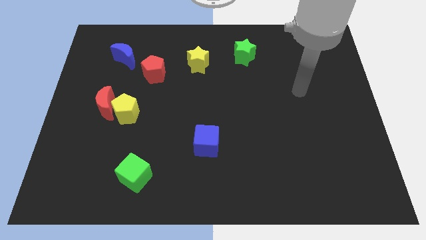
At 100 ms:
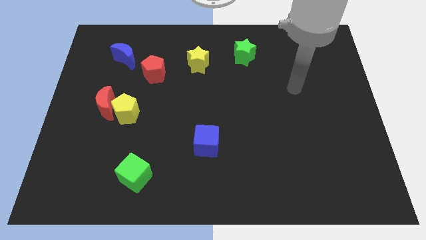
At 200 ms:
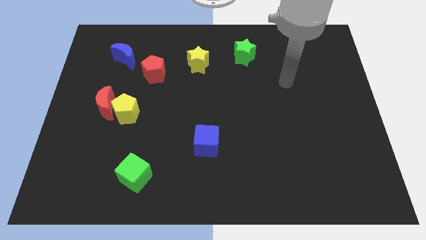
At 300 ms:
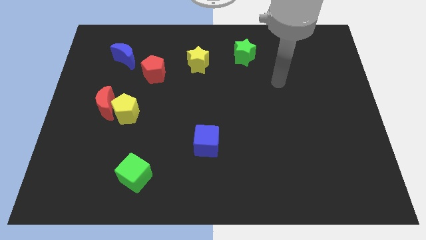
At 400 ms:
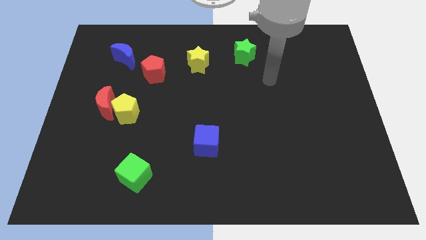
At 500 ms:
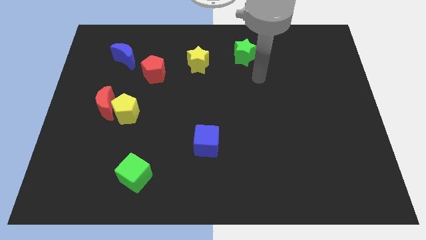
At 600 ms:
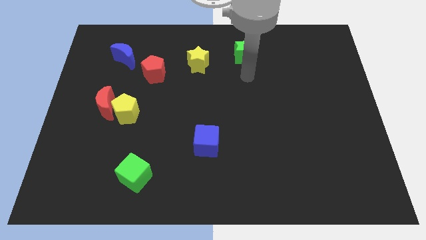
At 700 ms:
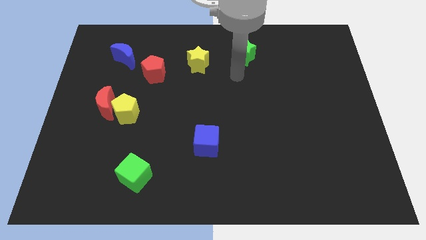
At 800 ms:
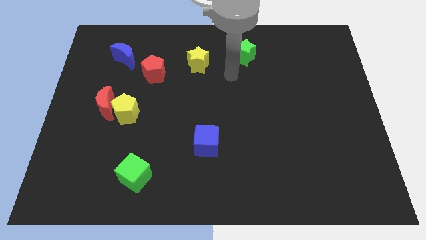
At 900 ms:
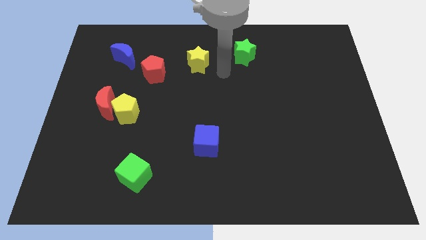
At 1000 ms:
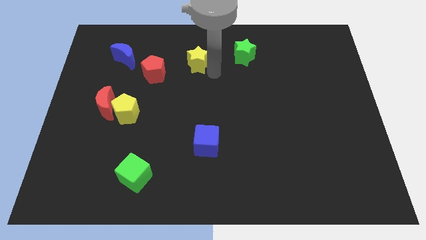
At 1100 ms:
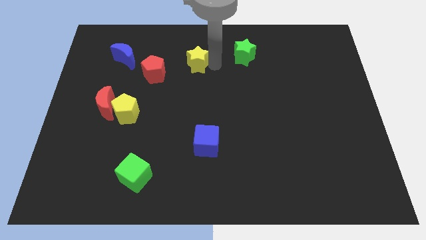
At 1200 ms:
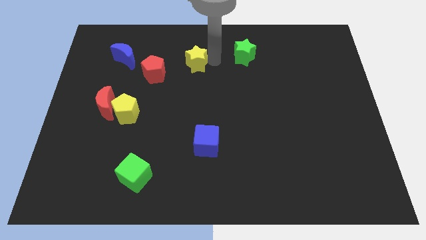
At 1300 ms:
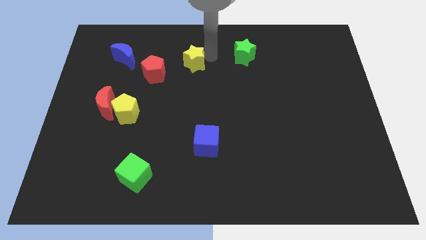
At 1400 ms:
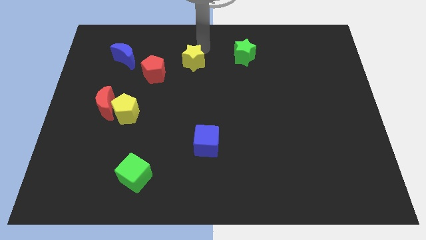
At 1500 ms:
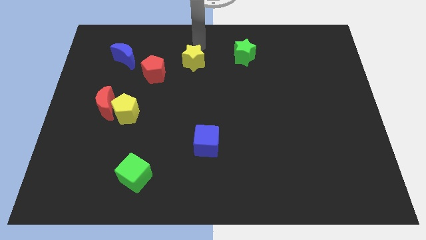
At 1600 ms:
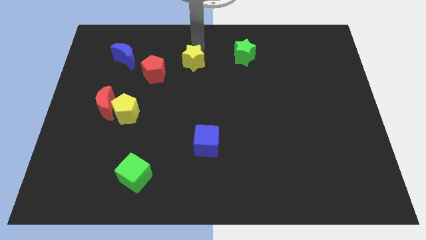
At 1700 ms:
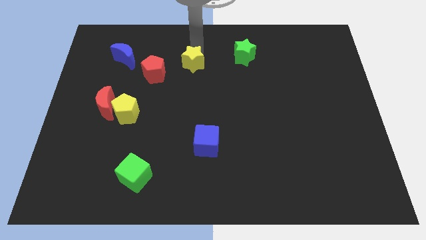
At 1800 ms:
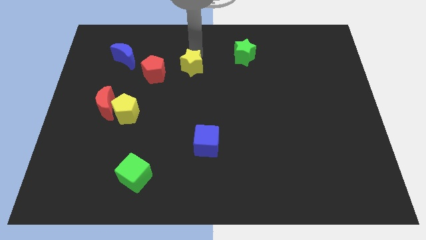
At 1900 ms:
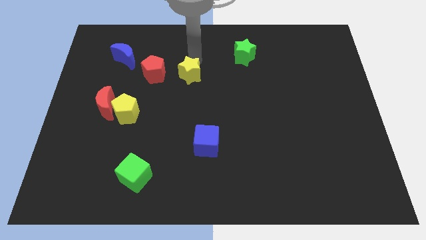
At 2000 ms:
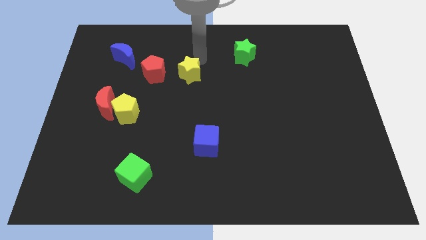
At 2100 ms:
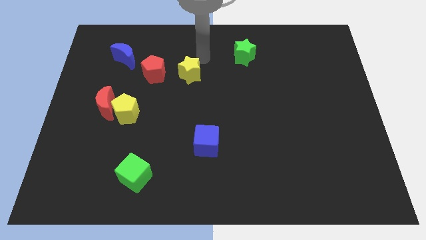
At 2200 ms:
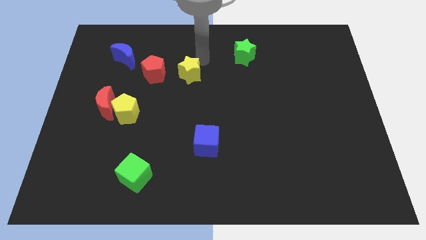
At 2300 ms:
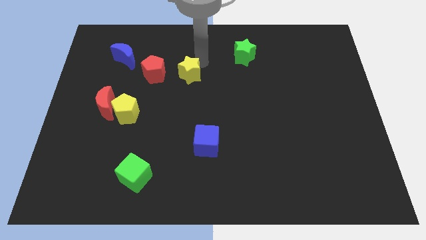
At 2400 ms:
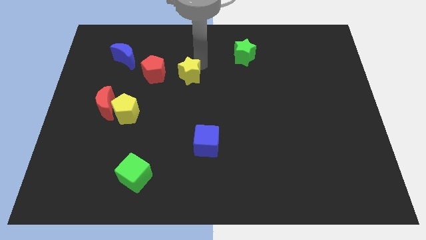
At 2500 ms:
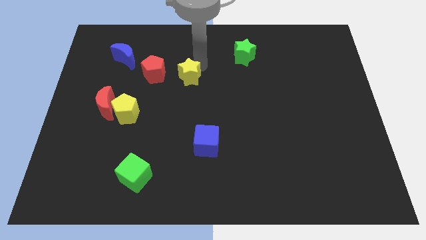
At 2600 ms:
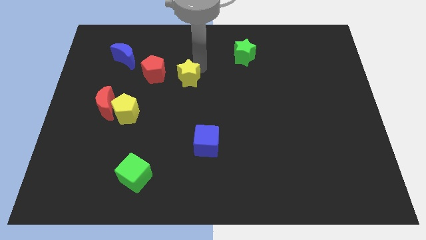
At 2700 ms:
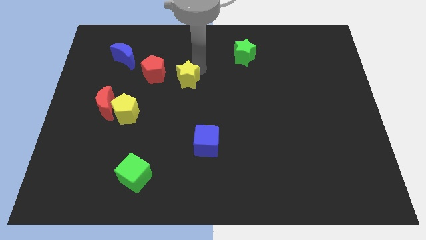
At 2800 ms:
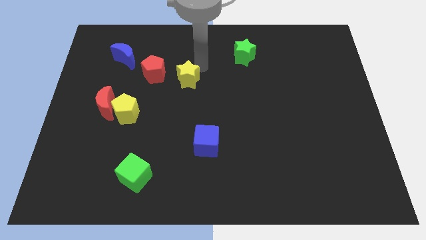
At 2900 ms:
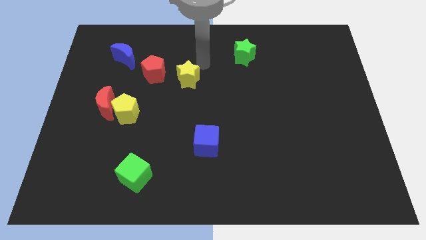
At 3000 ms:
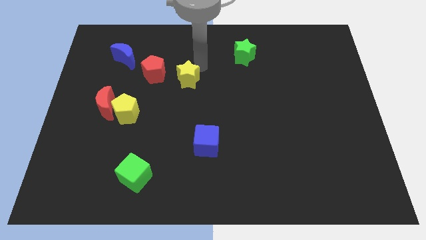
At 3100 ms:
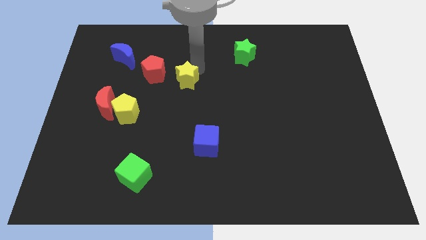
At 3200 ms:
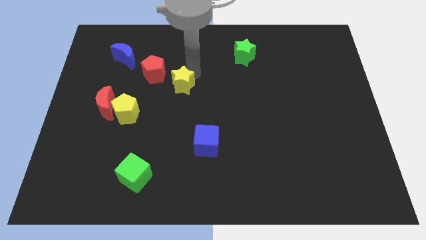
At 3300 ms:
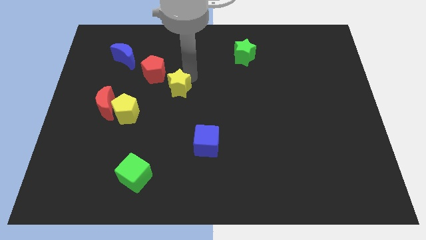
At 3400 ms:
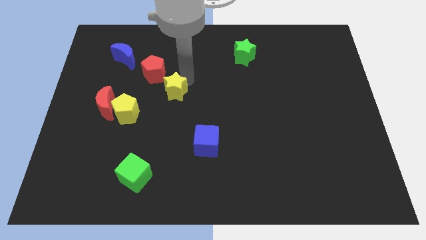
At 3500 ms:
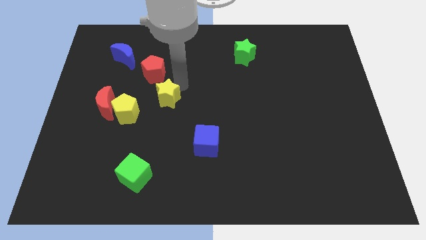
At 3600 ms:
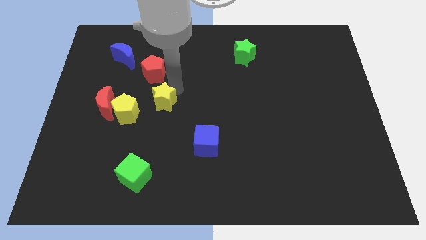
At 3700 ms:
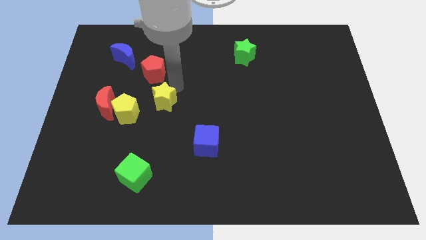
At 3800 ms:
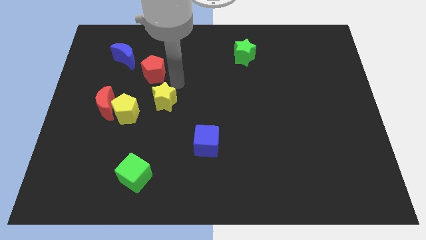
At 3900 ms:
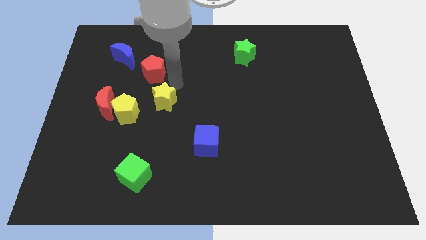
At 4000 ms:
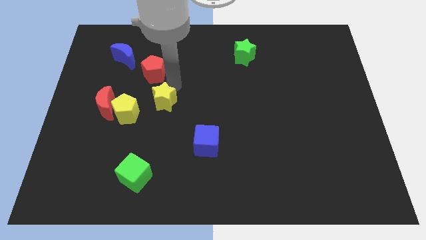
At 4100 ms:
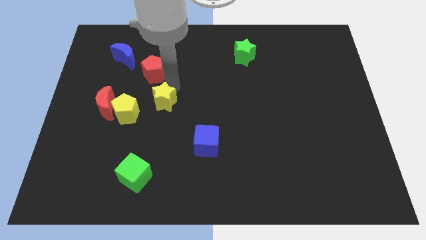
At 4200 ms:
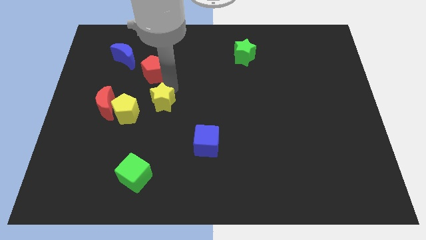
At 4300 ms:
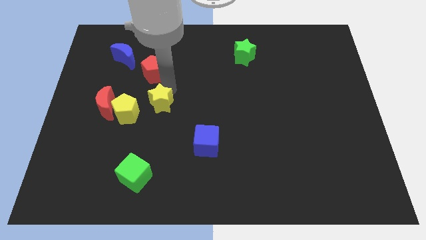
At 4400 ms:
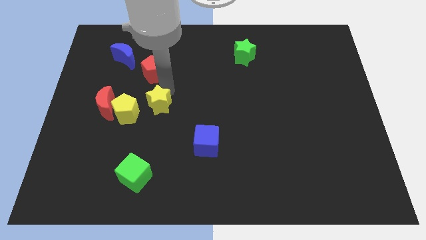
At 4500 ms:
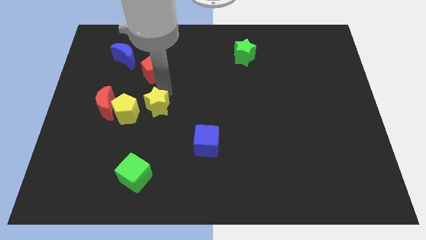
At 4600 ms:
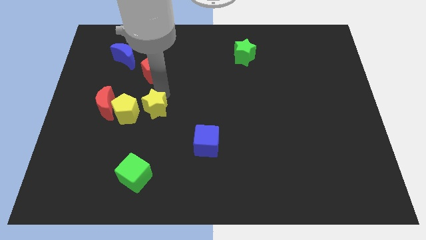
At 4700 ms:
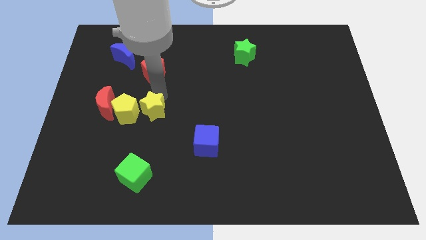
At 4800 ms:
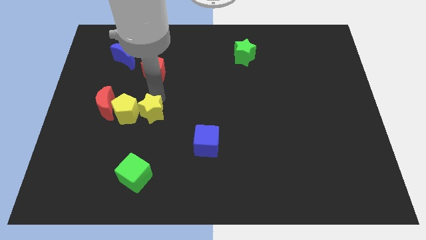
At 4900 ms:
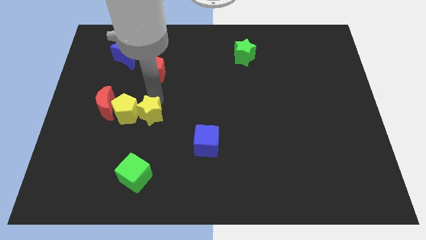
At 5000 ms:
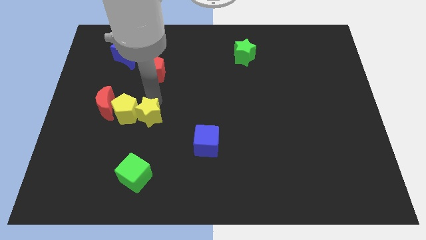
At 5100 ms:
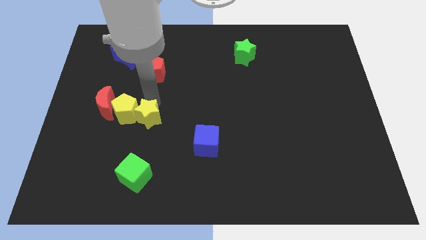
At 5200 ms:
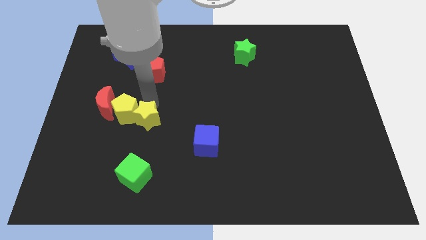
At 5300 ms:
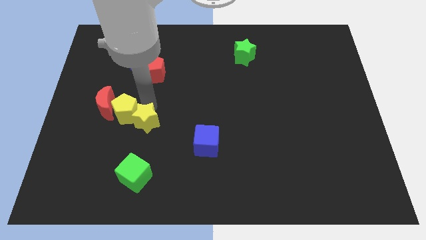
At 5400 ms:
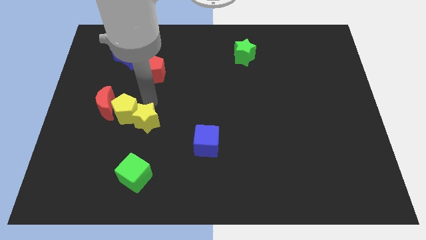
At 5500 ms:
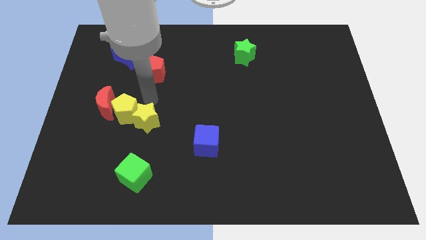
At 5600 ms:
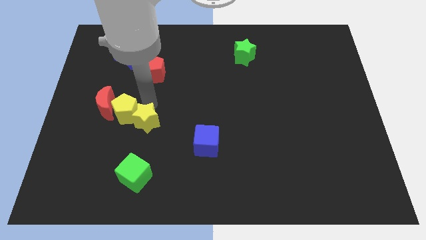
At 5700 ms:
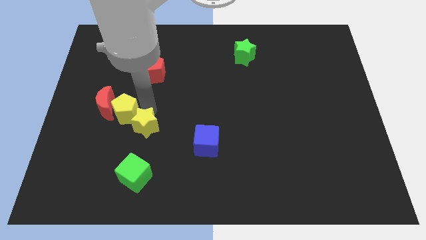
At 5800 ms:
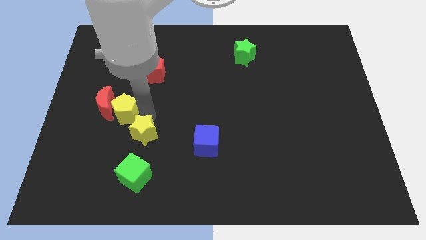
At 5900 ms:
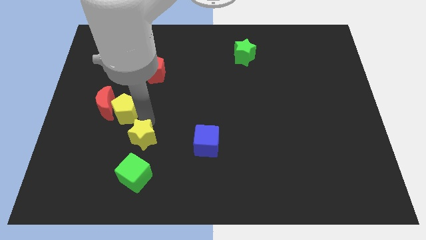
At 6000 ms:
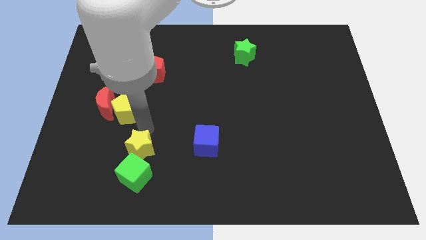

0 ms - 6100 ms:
move the yellow star to the green cube

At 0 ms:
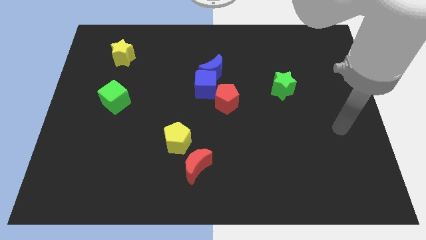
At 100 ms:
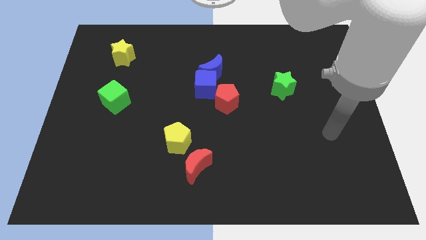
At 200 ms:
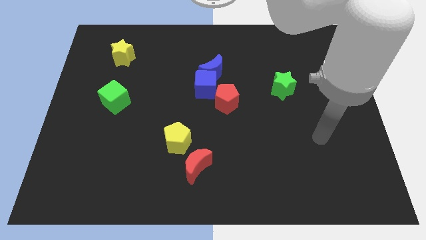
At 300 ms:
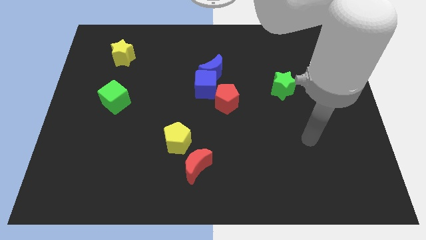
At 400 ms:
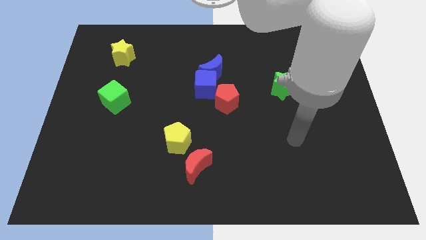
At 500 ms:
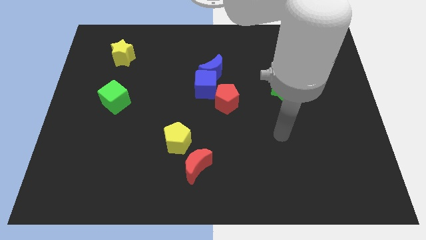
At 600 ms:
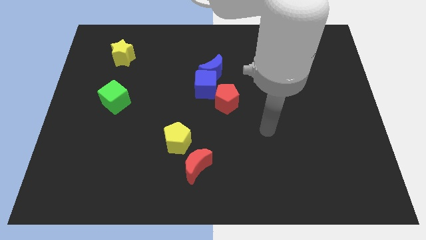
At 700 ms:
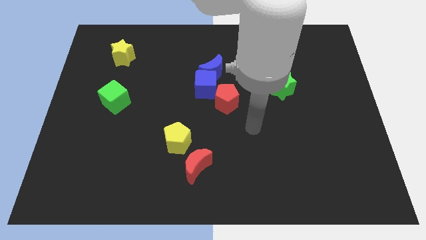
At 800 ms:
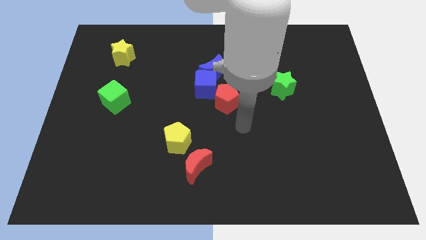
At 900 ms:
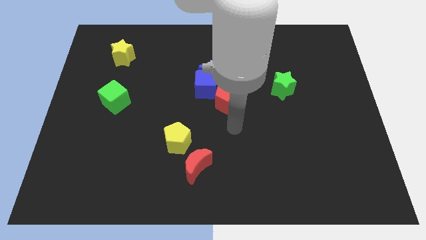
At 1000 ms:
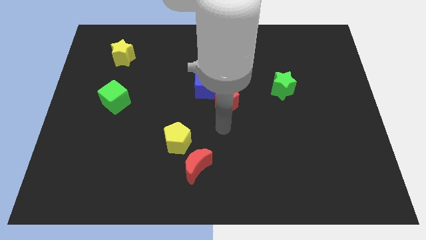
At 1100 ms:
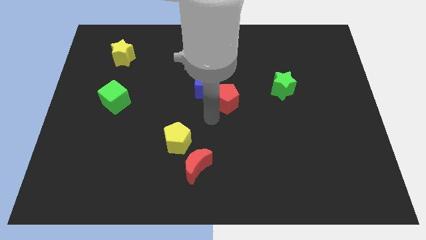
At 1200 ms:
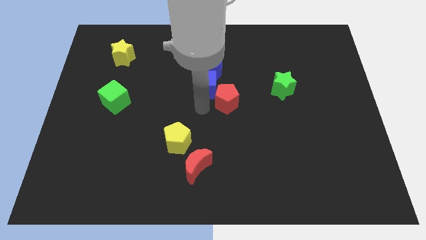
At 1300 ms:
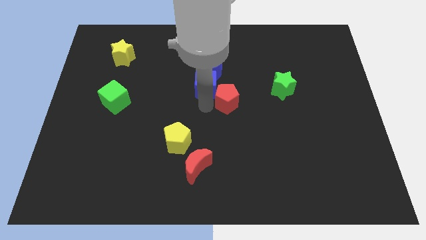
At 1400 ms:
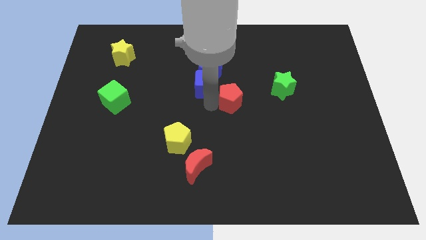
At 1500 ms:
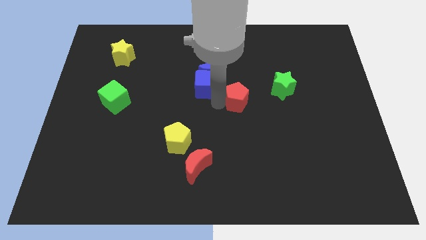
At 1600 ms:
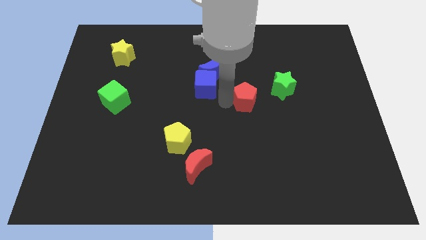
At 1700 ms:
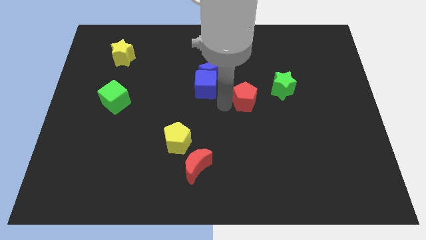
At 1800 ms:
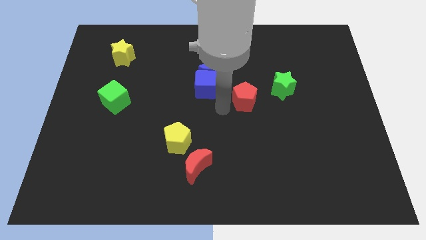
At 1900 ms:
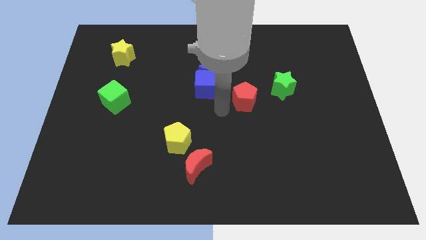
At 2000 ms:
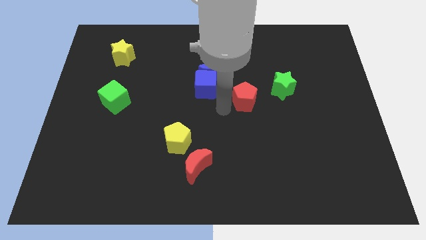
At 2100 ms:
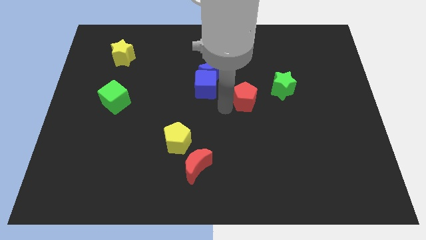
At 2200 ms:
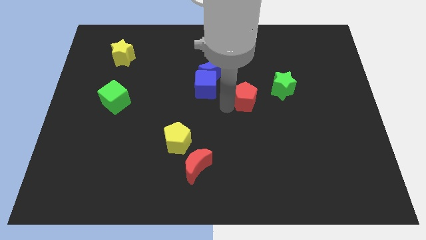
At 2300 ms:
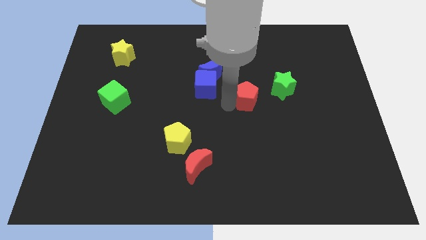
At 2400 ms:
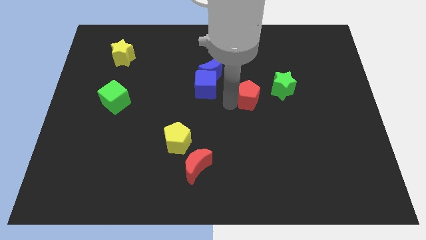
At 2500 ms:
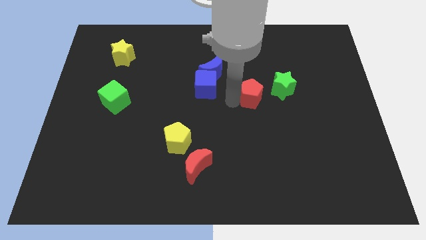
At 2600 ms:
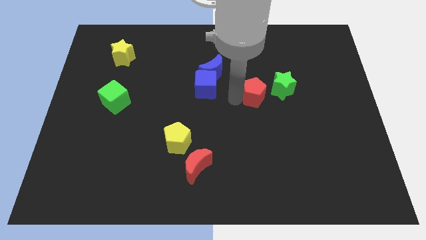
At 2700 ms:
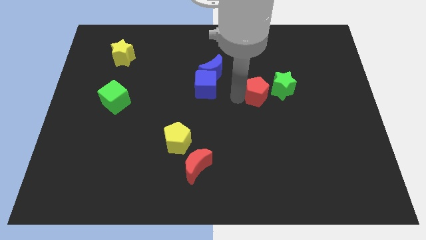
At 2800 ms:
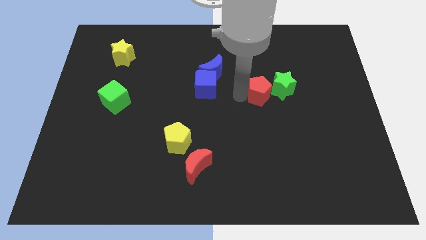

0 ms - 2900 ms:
put the red pentagon to the green star
